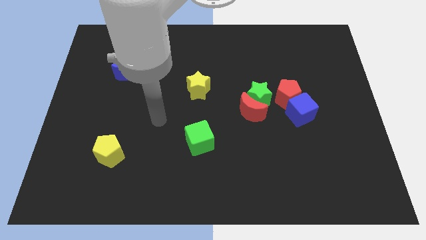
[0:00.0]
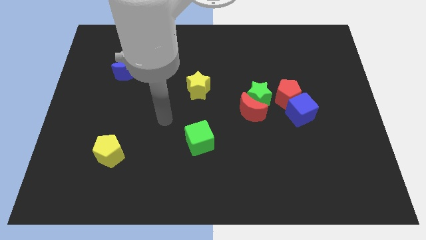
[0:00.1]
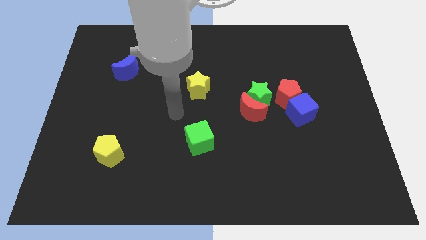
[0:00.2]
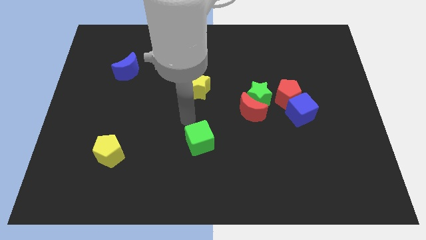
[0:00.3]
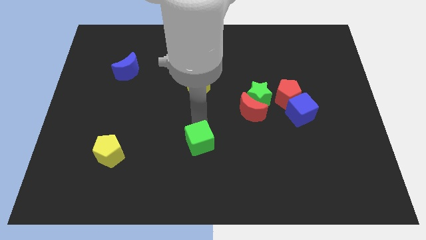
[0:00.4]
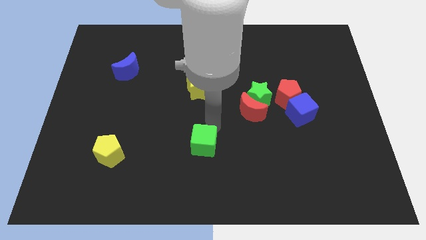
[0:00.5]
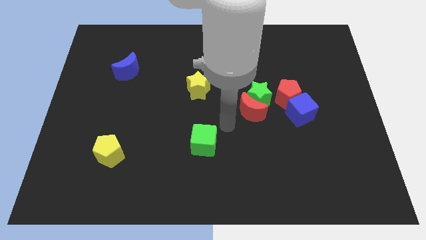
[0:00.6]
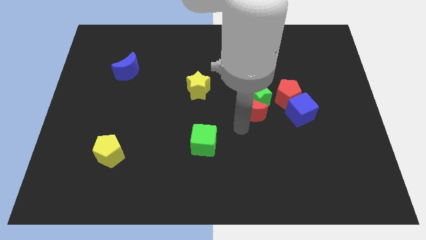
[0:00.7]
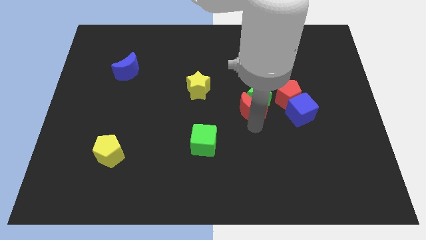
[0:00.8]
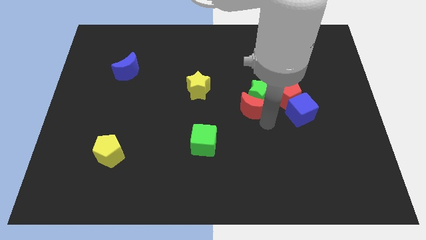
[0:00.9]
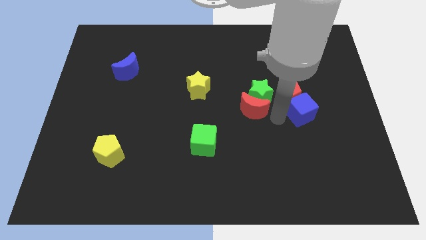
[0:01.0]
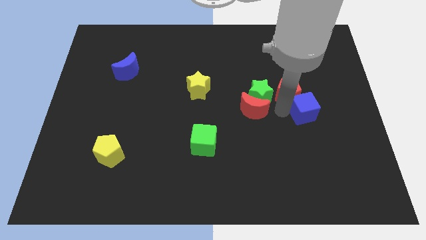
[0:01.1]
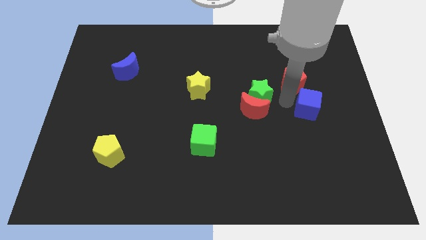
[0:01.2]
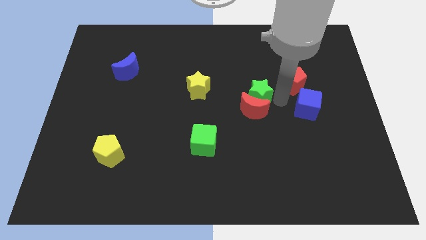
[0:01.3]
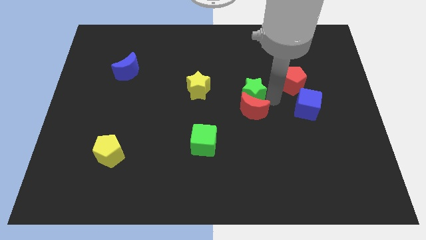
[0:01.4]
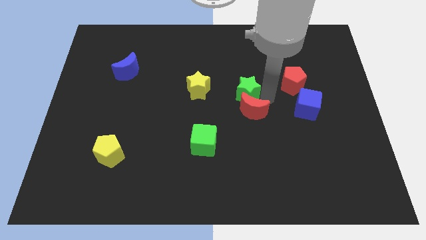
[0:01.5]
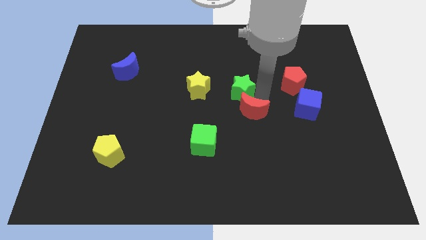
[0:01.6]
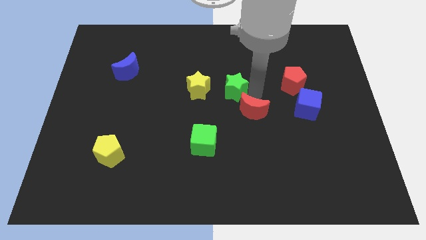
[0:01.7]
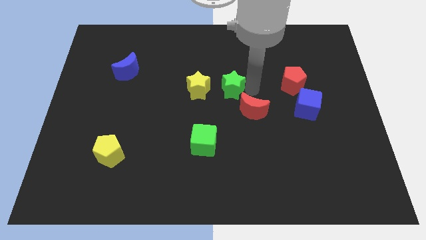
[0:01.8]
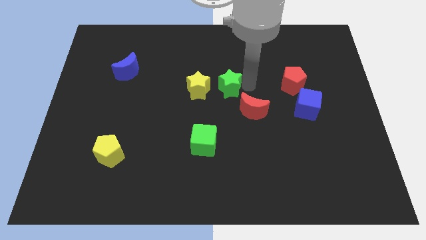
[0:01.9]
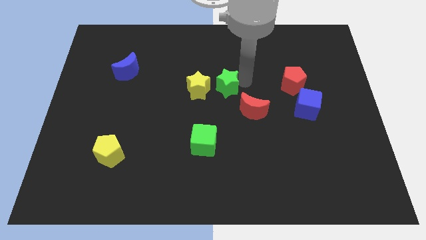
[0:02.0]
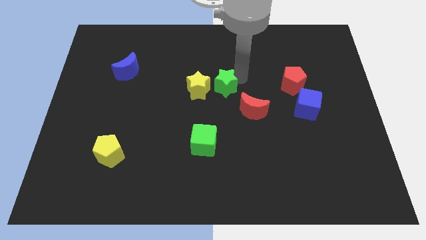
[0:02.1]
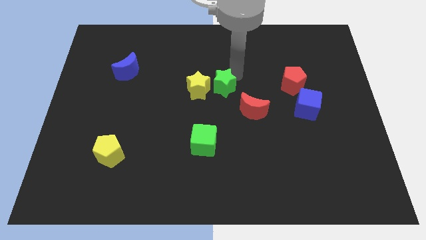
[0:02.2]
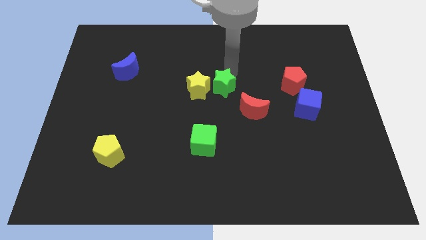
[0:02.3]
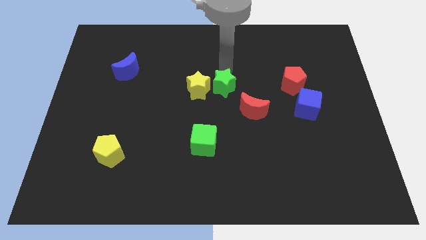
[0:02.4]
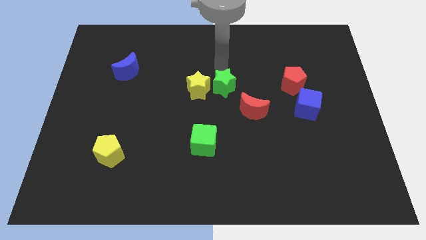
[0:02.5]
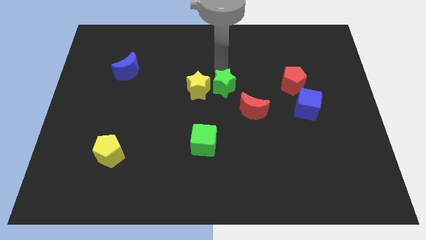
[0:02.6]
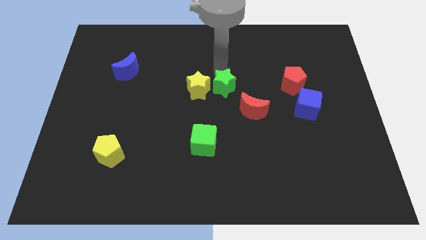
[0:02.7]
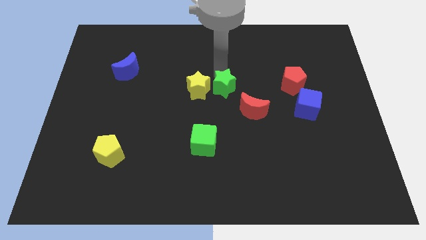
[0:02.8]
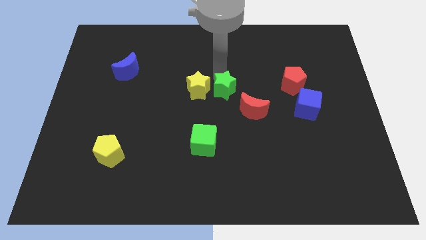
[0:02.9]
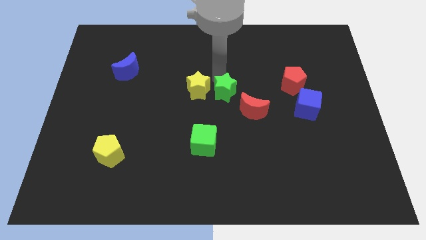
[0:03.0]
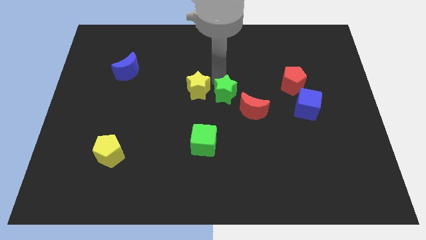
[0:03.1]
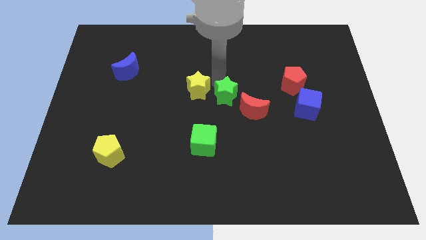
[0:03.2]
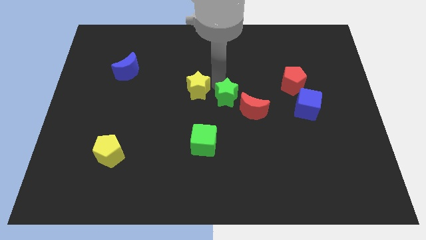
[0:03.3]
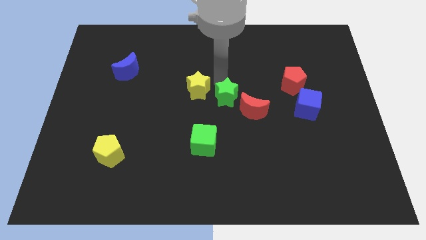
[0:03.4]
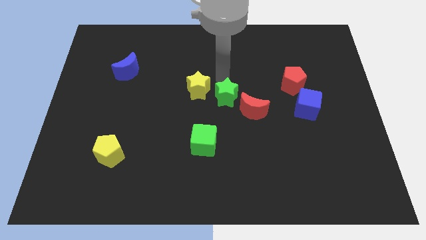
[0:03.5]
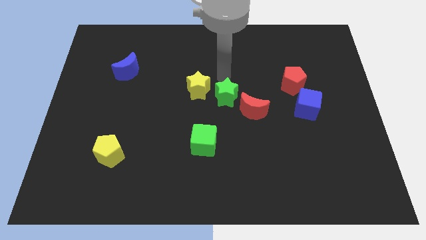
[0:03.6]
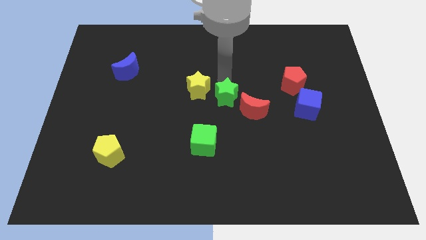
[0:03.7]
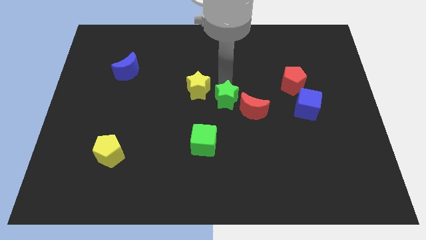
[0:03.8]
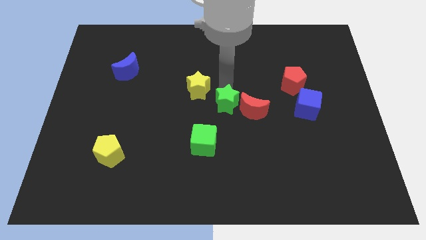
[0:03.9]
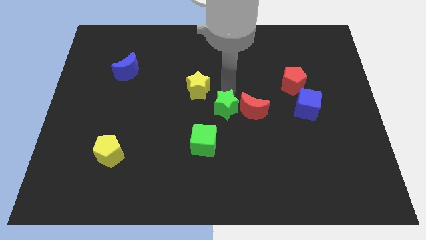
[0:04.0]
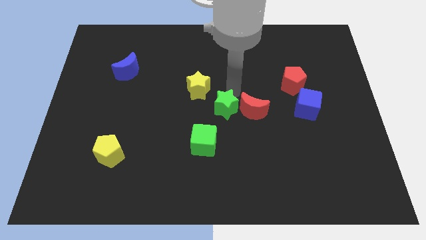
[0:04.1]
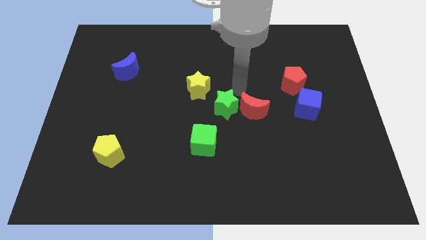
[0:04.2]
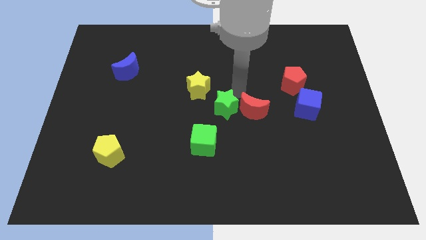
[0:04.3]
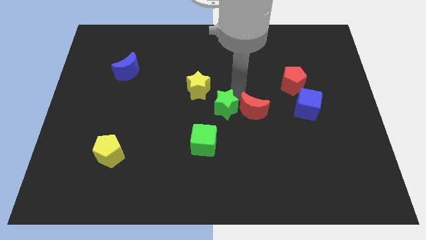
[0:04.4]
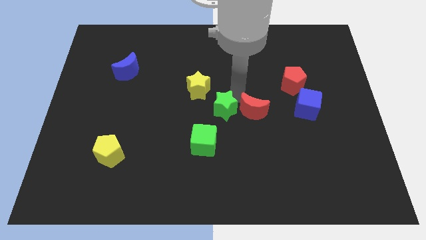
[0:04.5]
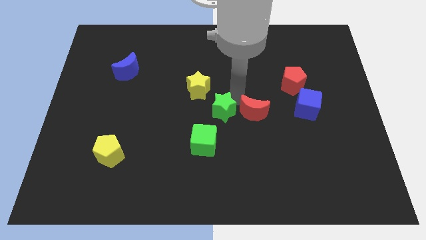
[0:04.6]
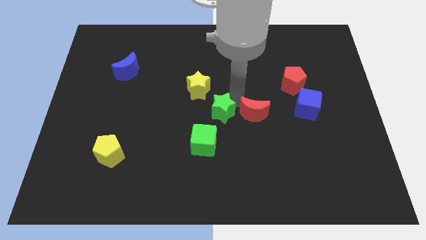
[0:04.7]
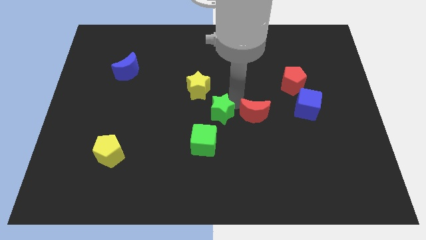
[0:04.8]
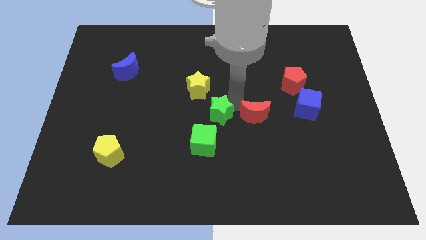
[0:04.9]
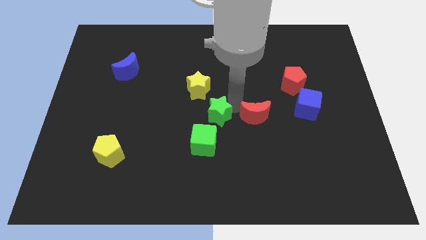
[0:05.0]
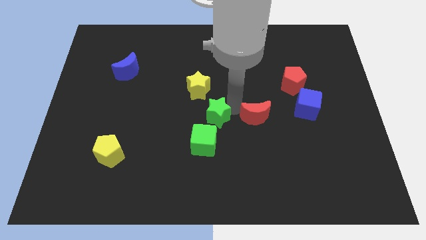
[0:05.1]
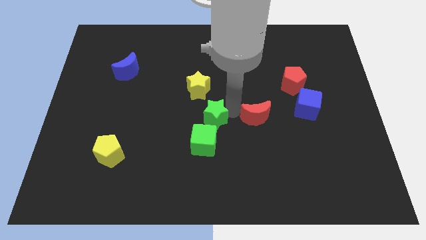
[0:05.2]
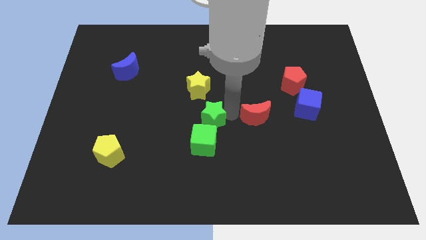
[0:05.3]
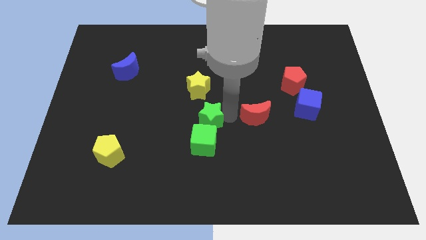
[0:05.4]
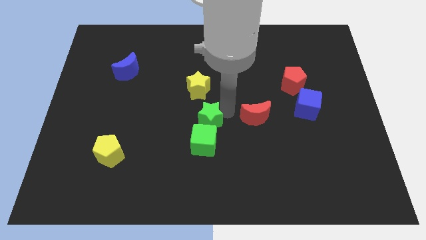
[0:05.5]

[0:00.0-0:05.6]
put the green star next to the green cube

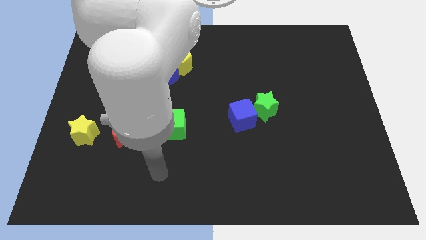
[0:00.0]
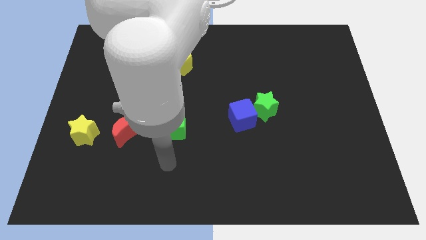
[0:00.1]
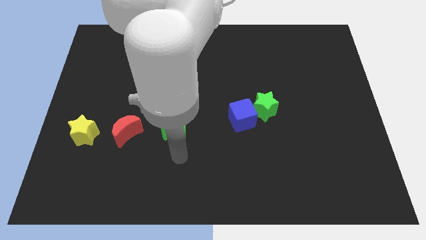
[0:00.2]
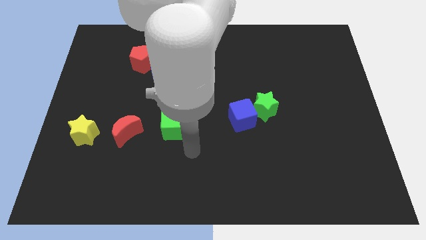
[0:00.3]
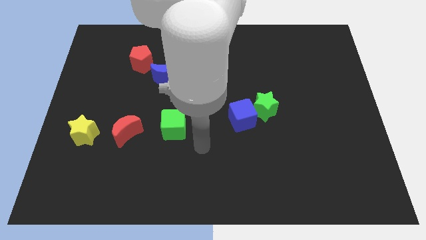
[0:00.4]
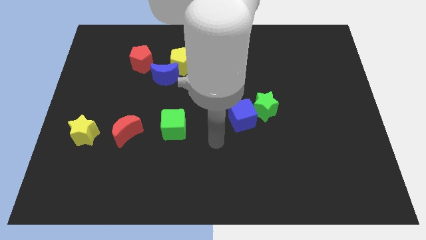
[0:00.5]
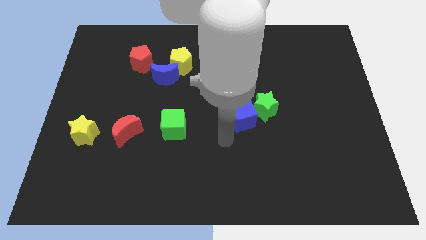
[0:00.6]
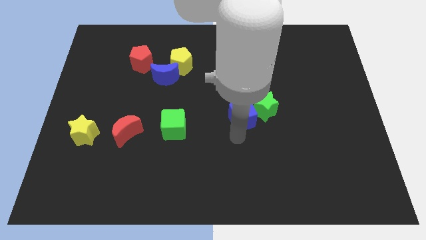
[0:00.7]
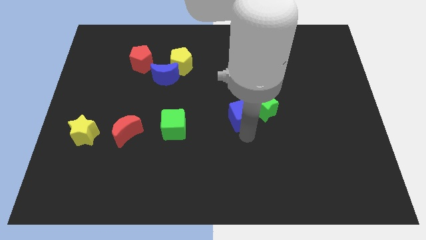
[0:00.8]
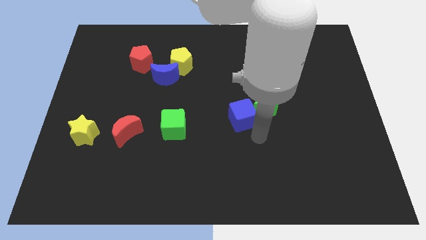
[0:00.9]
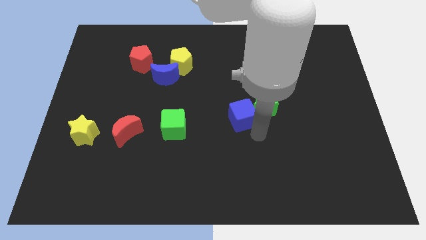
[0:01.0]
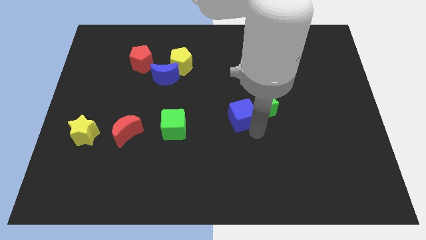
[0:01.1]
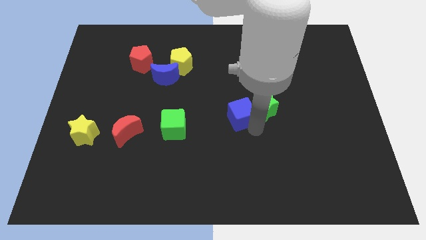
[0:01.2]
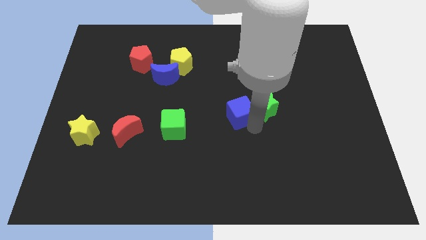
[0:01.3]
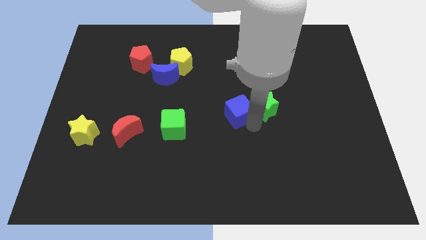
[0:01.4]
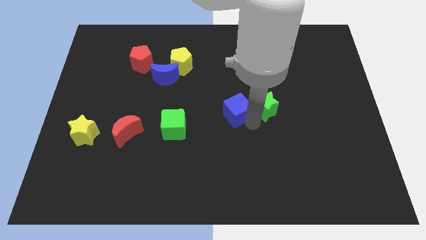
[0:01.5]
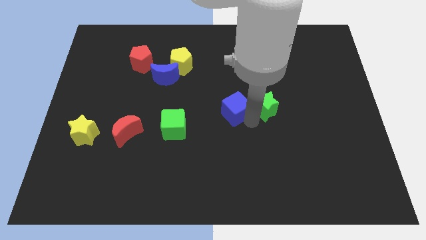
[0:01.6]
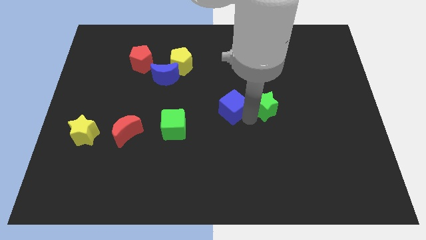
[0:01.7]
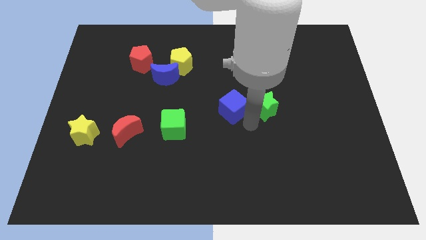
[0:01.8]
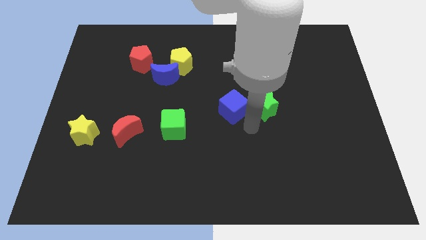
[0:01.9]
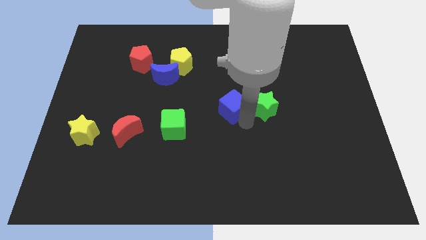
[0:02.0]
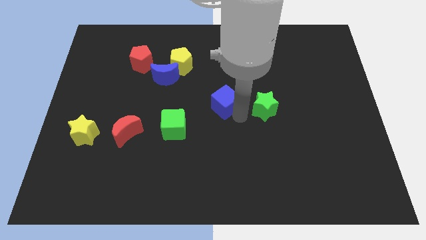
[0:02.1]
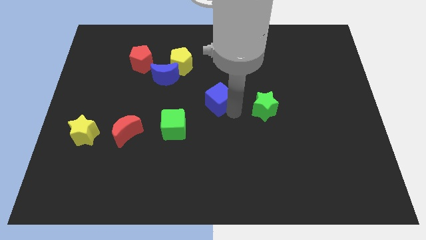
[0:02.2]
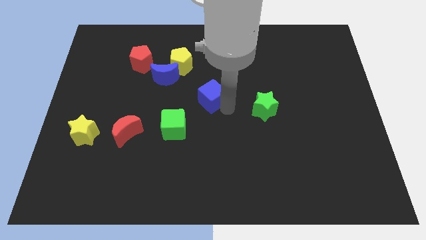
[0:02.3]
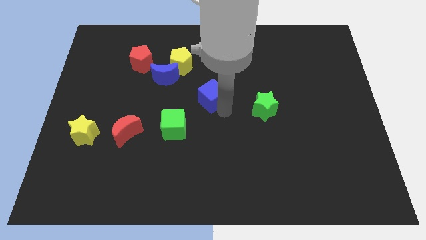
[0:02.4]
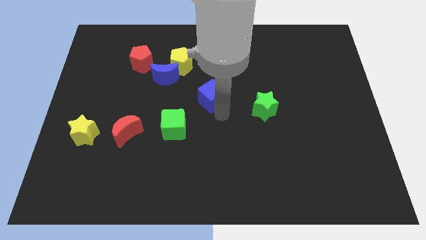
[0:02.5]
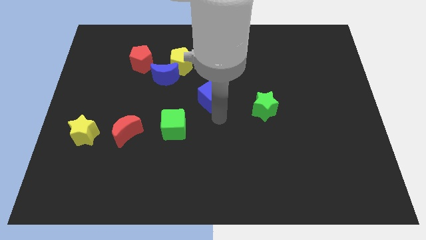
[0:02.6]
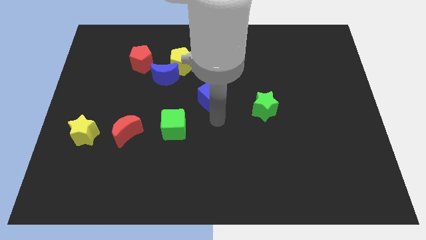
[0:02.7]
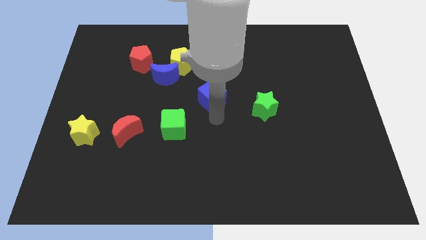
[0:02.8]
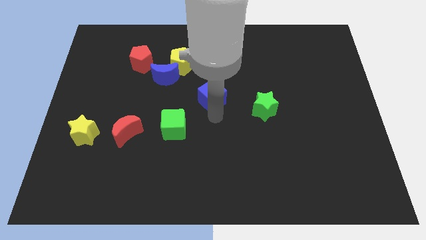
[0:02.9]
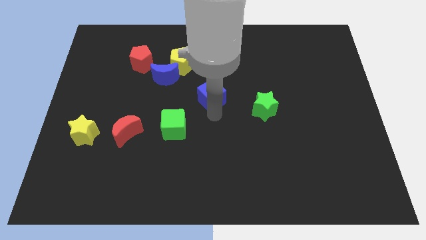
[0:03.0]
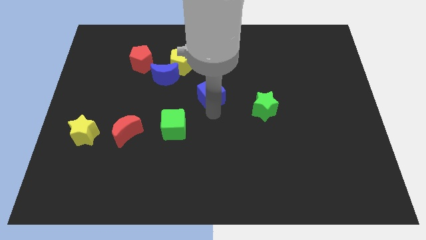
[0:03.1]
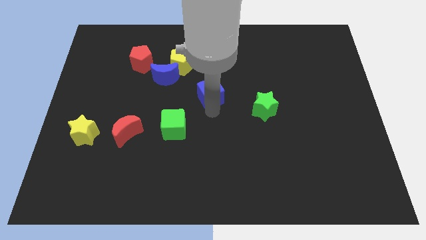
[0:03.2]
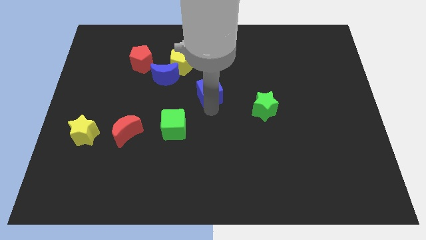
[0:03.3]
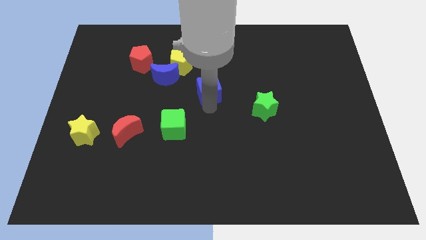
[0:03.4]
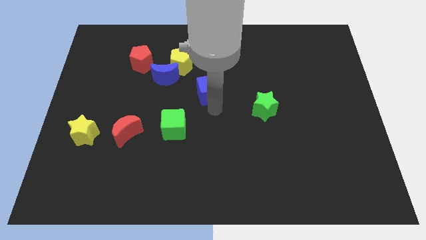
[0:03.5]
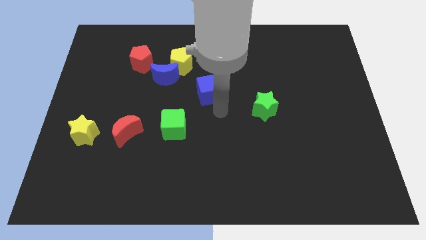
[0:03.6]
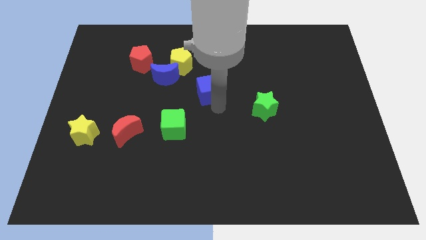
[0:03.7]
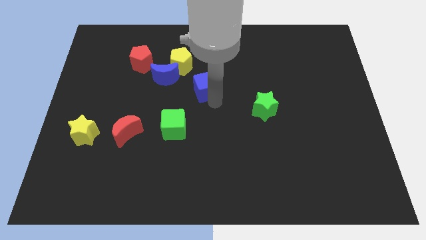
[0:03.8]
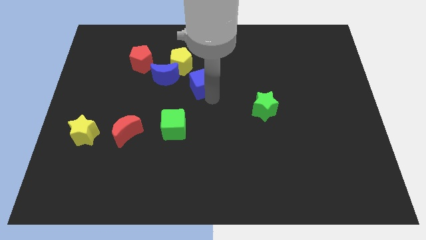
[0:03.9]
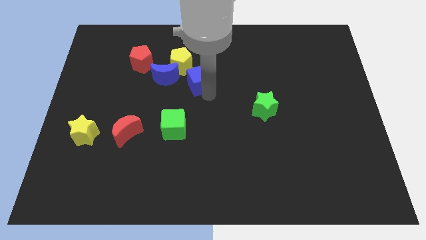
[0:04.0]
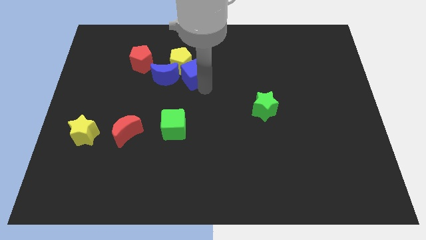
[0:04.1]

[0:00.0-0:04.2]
slide the blue cube to the yellow pentagon
